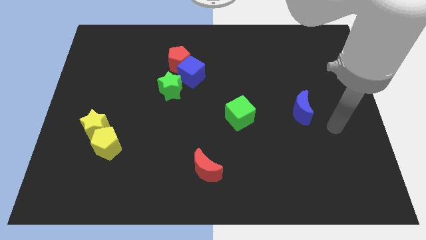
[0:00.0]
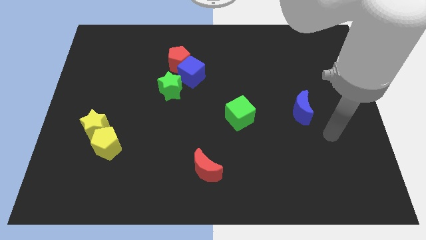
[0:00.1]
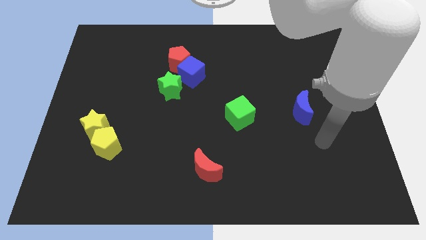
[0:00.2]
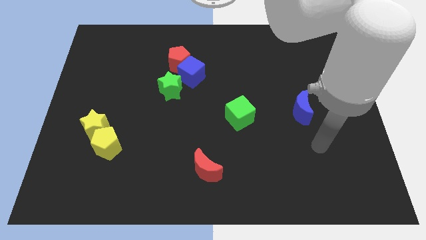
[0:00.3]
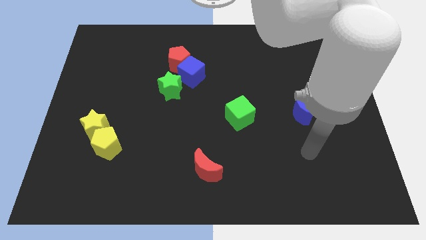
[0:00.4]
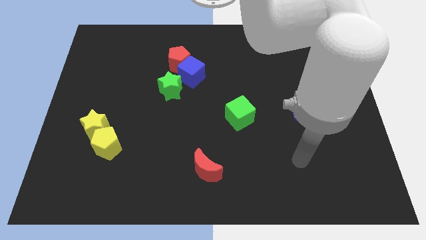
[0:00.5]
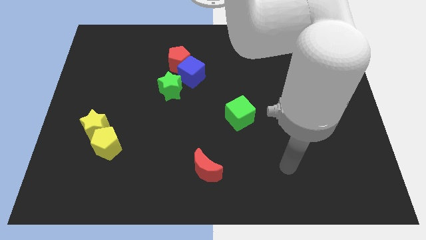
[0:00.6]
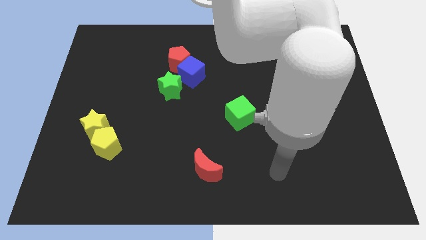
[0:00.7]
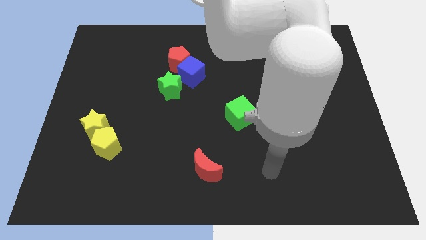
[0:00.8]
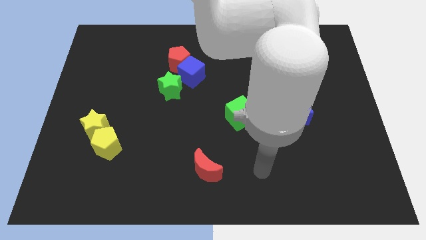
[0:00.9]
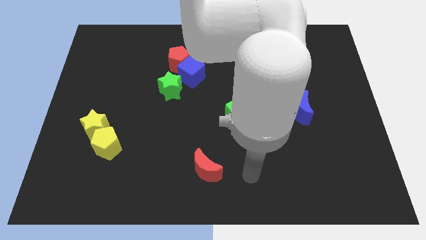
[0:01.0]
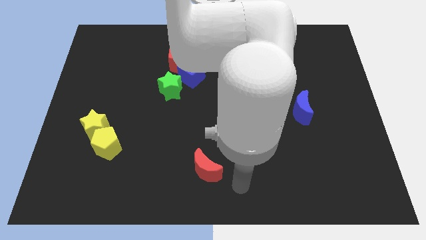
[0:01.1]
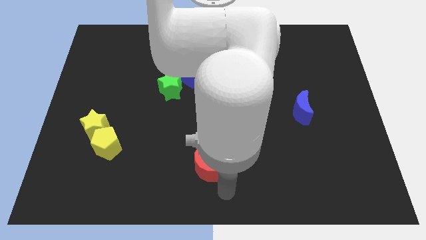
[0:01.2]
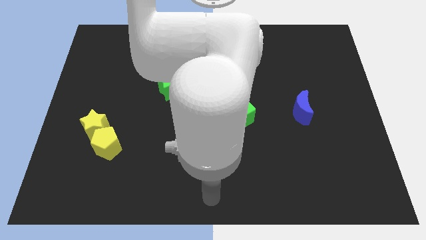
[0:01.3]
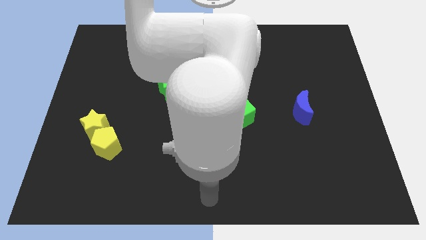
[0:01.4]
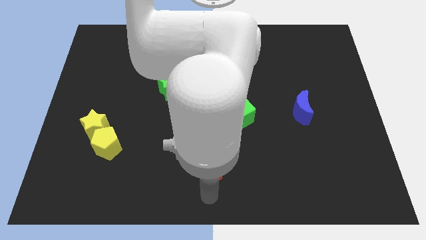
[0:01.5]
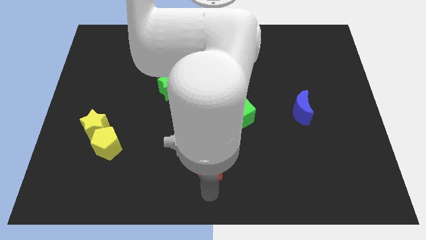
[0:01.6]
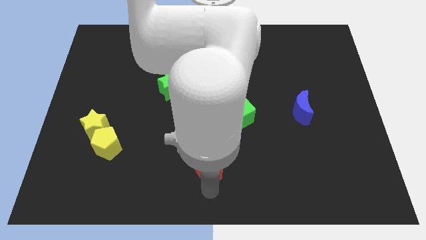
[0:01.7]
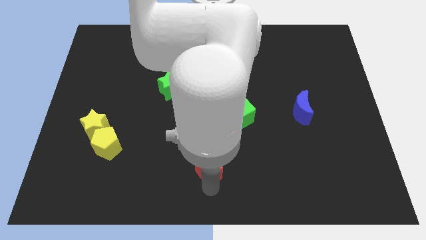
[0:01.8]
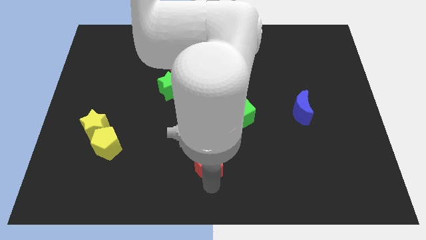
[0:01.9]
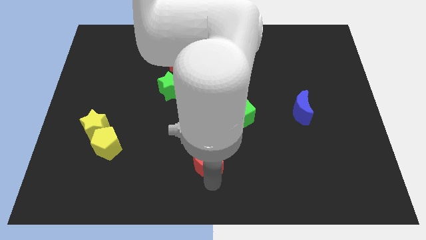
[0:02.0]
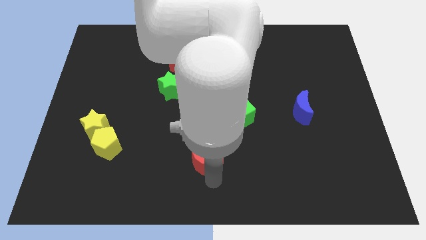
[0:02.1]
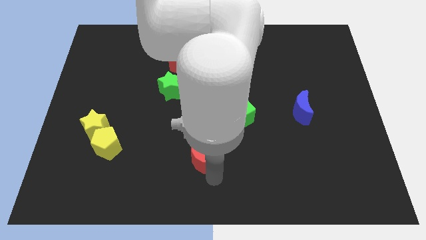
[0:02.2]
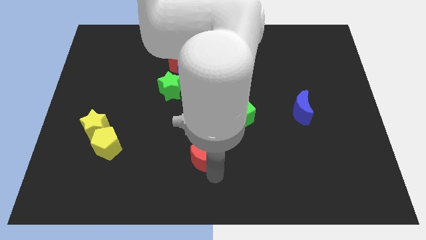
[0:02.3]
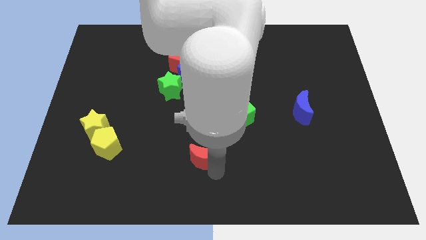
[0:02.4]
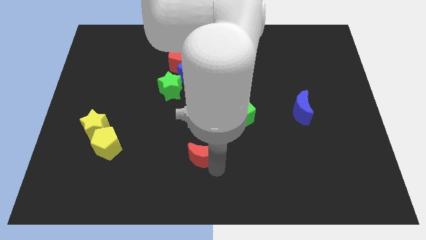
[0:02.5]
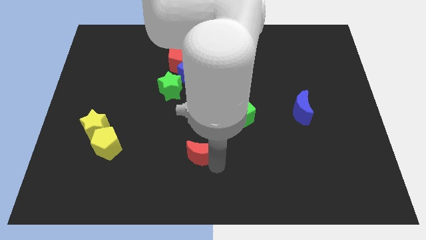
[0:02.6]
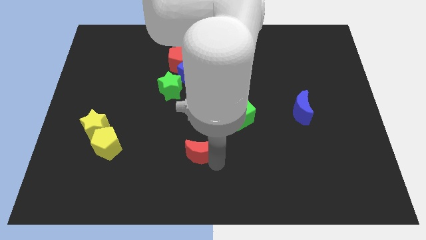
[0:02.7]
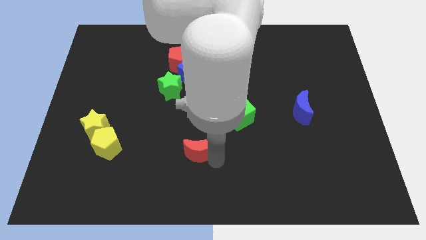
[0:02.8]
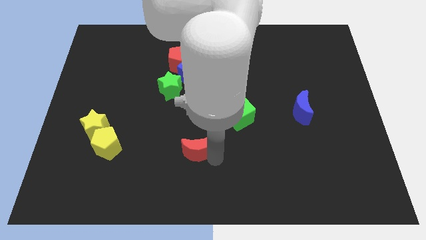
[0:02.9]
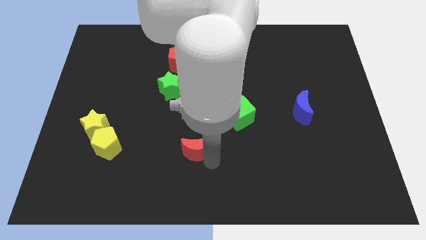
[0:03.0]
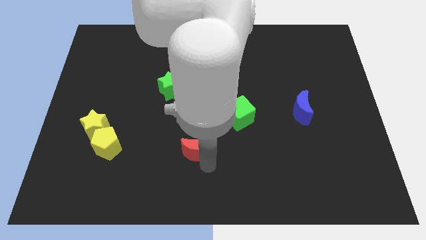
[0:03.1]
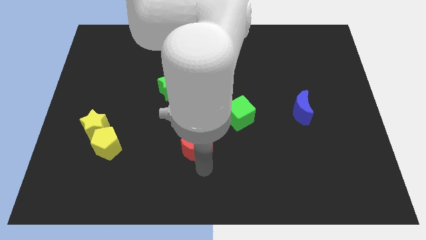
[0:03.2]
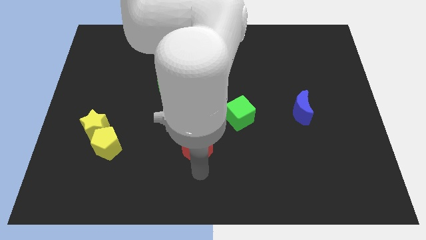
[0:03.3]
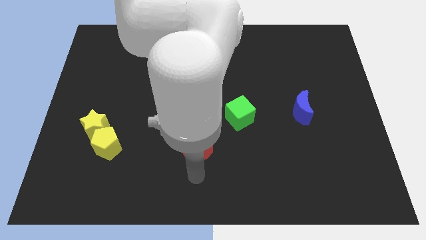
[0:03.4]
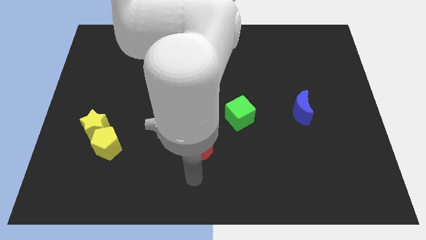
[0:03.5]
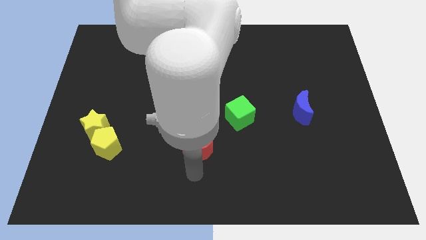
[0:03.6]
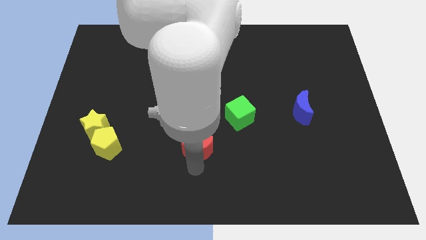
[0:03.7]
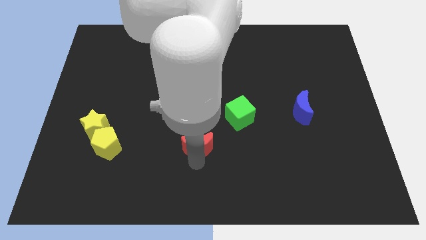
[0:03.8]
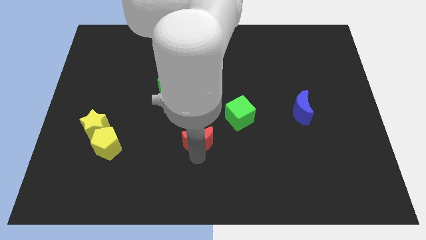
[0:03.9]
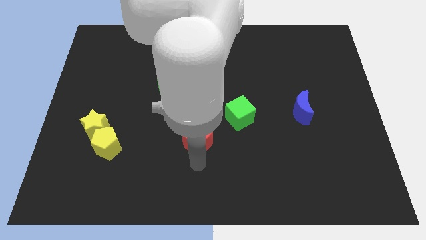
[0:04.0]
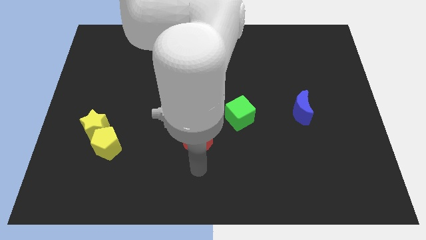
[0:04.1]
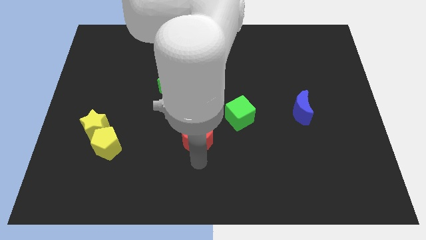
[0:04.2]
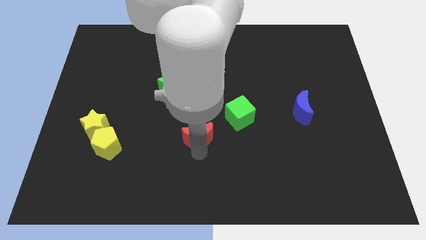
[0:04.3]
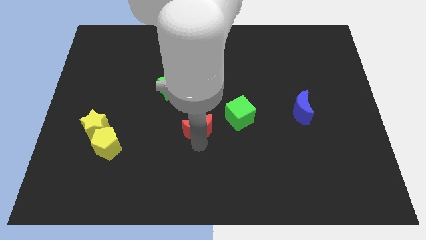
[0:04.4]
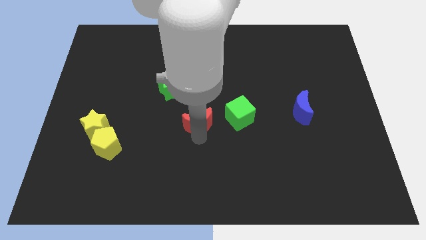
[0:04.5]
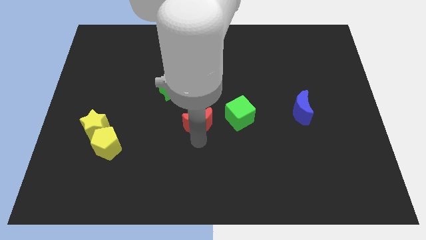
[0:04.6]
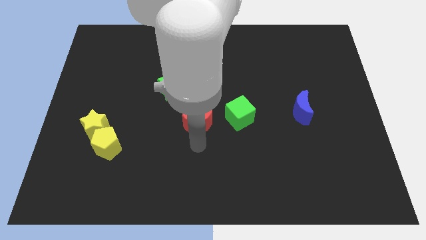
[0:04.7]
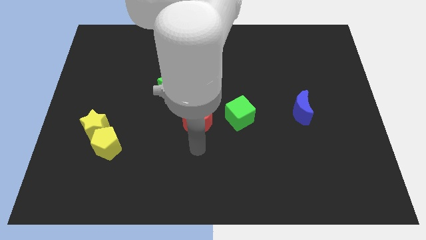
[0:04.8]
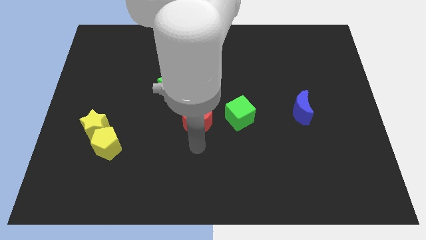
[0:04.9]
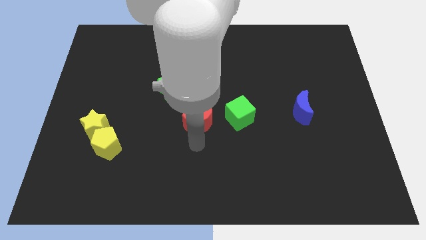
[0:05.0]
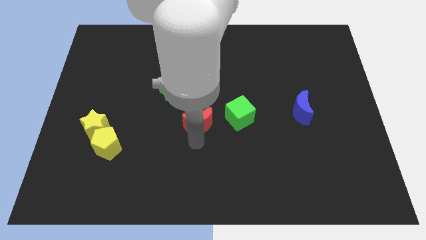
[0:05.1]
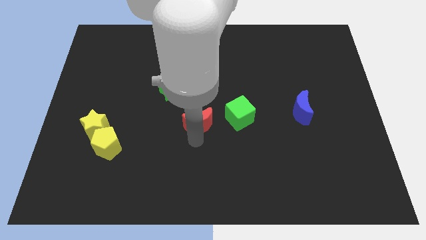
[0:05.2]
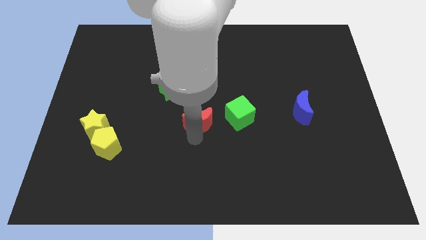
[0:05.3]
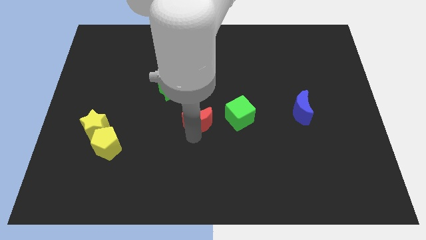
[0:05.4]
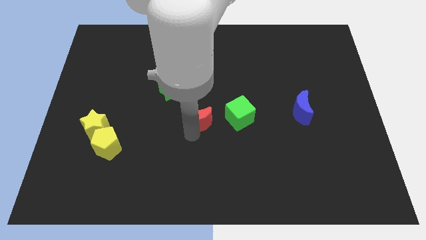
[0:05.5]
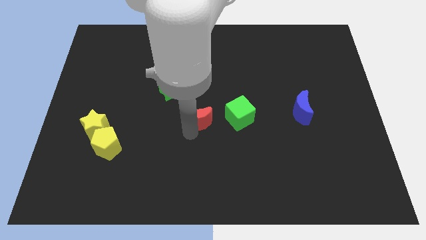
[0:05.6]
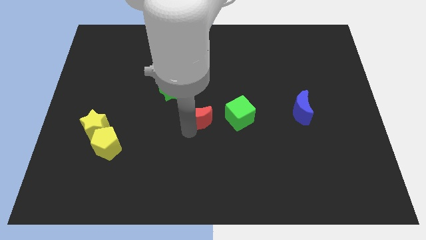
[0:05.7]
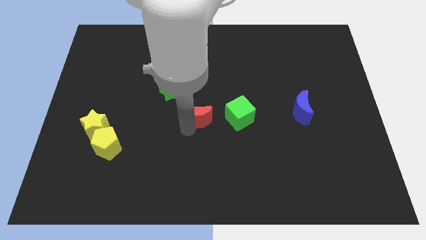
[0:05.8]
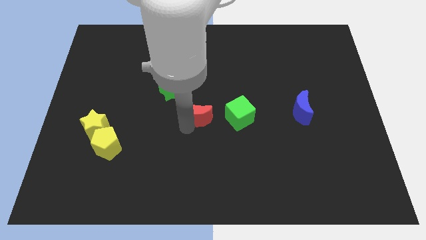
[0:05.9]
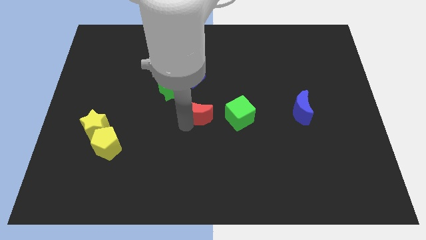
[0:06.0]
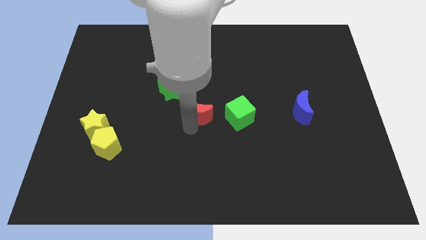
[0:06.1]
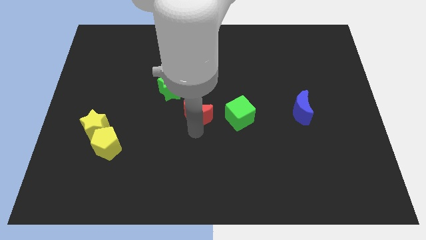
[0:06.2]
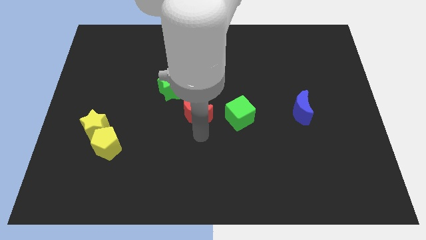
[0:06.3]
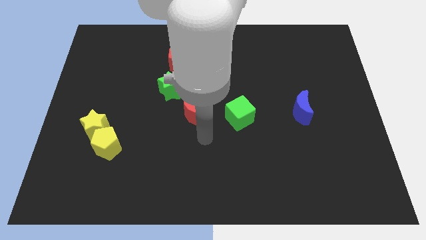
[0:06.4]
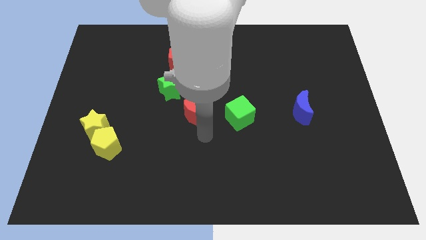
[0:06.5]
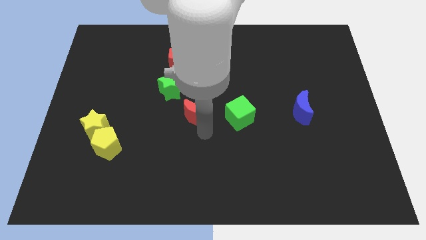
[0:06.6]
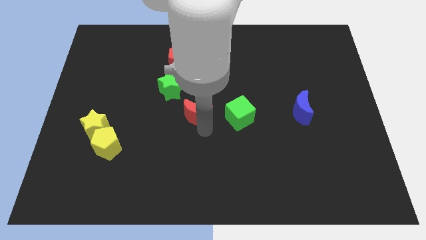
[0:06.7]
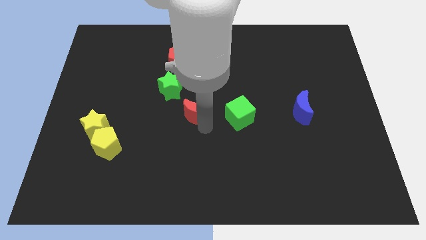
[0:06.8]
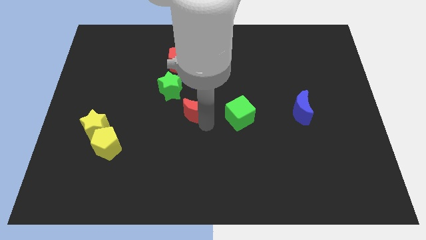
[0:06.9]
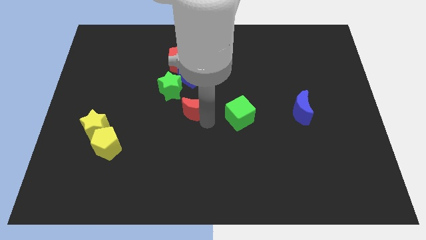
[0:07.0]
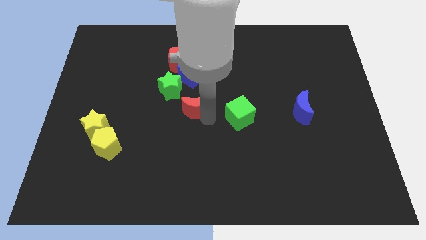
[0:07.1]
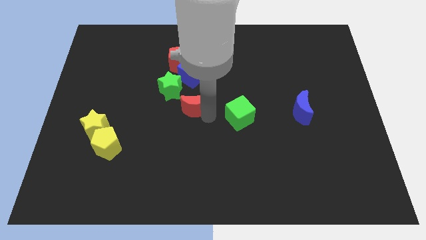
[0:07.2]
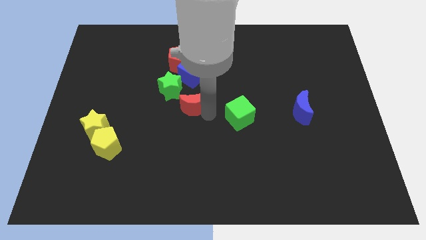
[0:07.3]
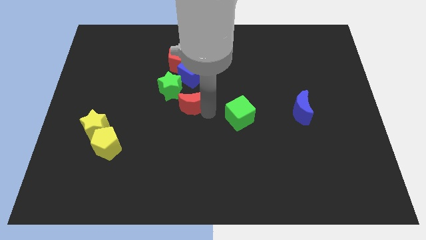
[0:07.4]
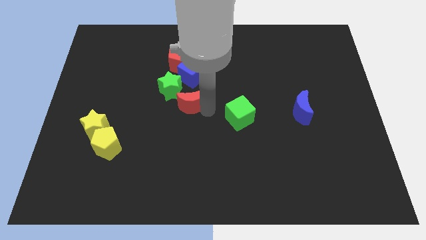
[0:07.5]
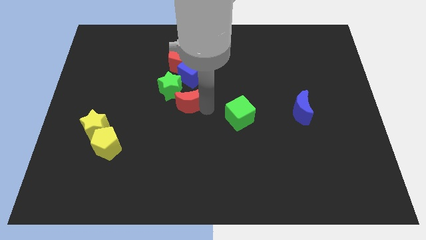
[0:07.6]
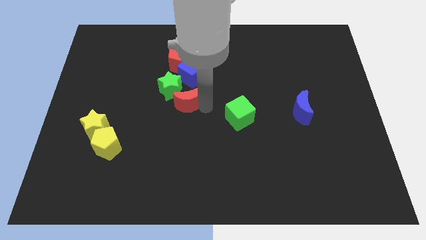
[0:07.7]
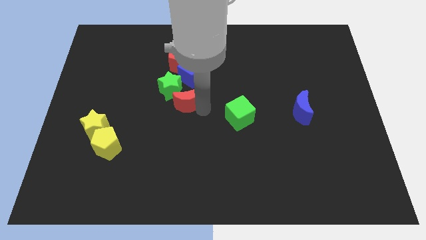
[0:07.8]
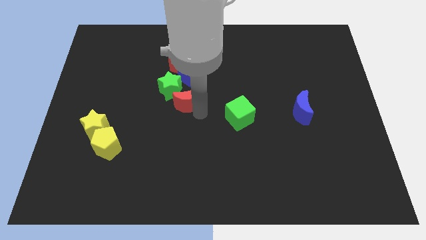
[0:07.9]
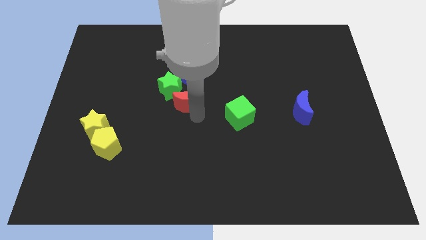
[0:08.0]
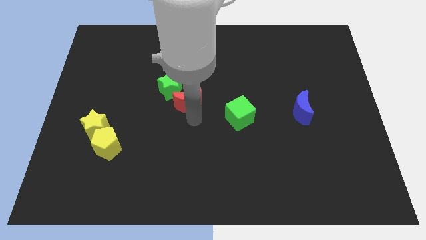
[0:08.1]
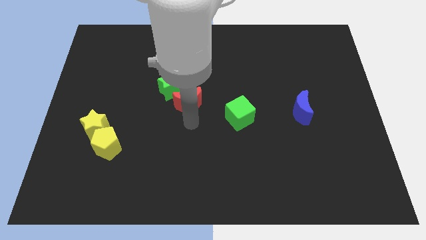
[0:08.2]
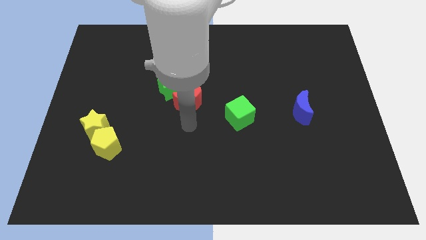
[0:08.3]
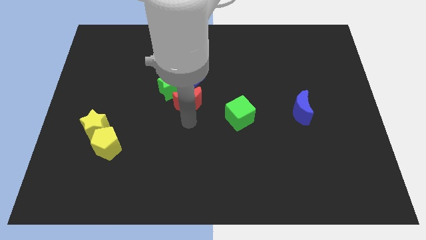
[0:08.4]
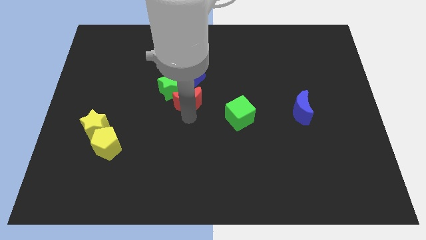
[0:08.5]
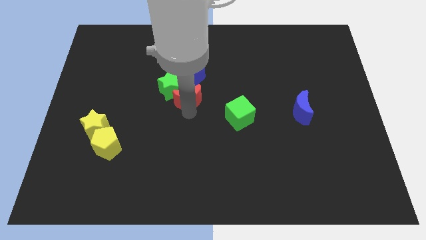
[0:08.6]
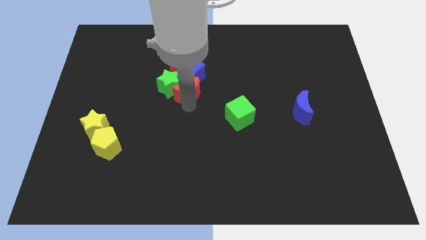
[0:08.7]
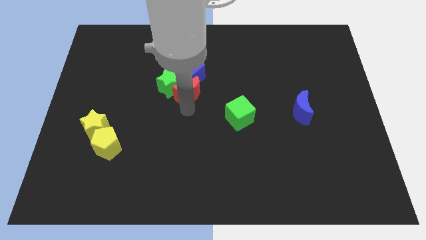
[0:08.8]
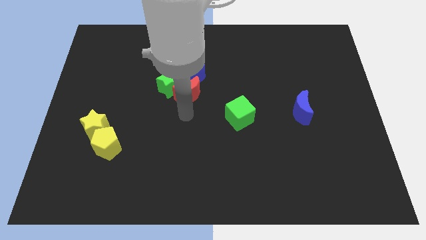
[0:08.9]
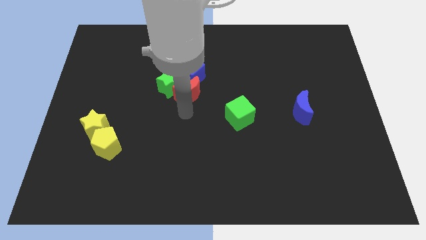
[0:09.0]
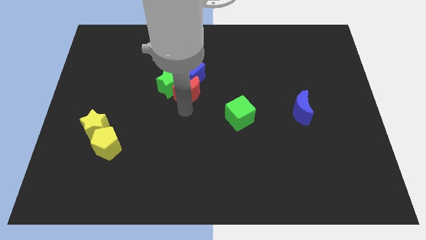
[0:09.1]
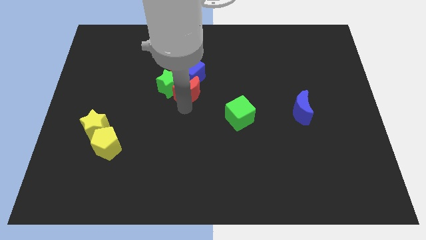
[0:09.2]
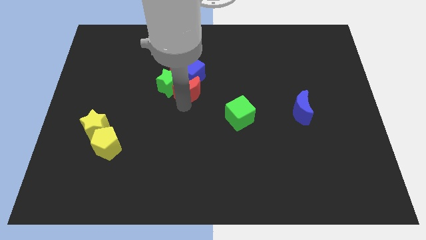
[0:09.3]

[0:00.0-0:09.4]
move the red moon close to the blue cube
